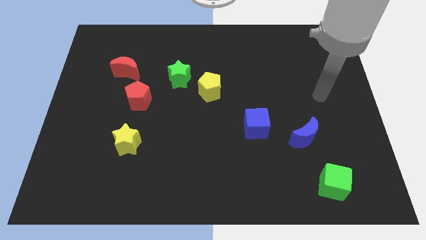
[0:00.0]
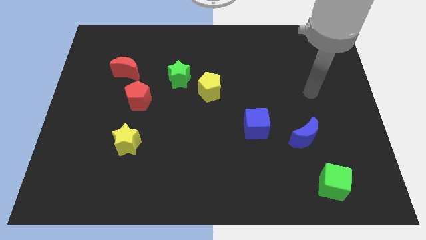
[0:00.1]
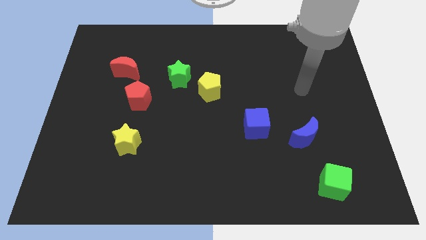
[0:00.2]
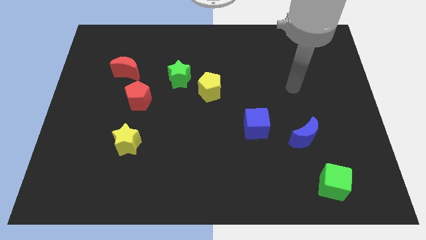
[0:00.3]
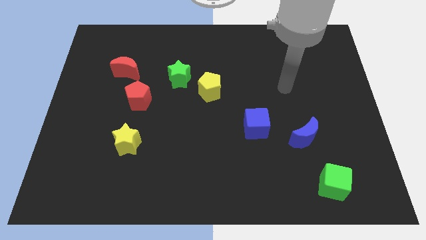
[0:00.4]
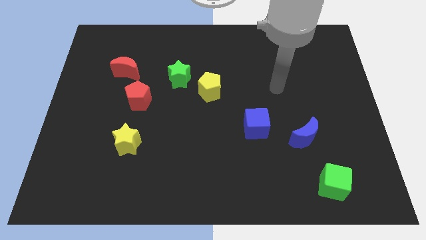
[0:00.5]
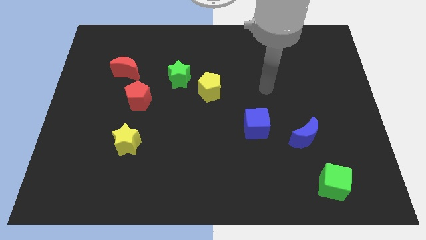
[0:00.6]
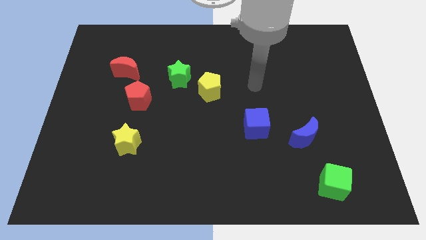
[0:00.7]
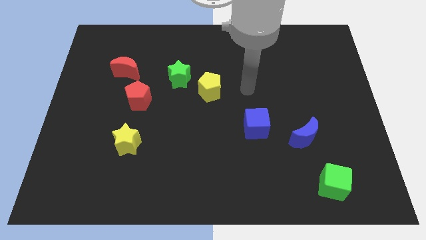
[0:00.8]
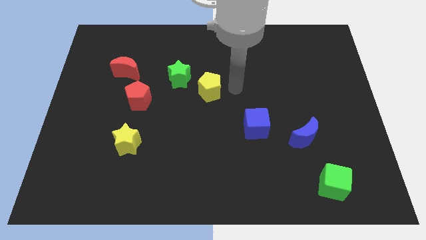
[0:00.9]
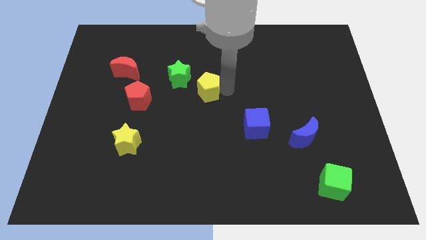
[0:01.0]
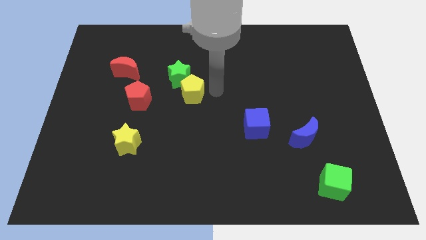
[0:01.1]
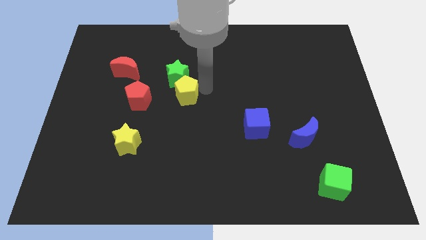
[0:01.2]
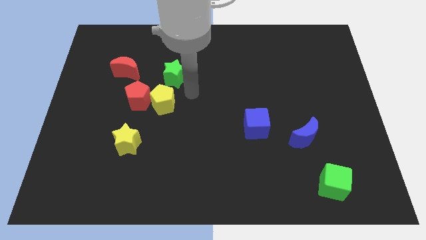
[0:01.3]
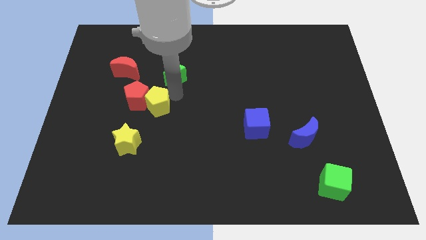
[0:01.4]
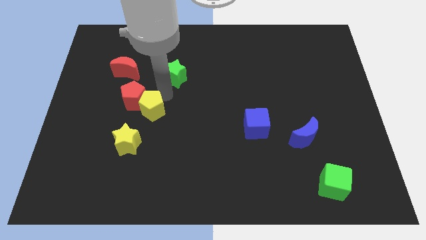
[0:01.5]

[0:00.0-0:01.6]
separate the green star from the yellow pentagon

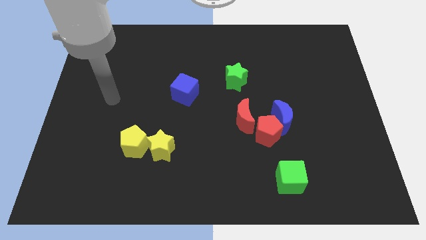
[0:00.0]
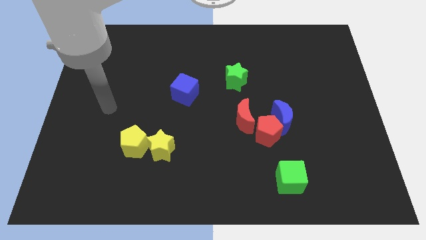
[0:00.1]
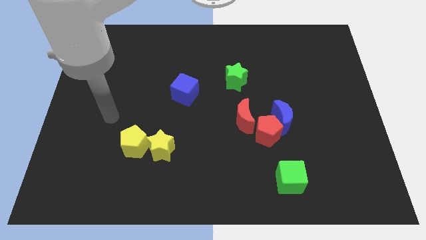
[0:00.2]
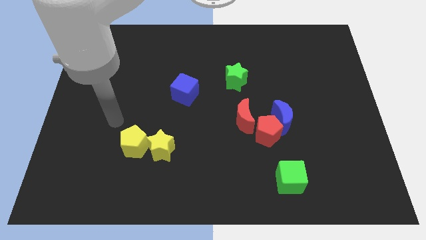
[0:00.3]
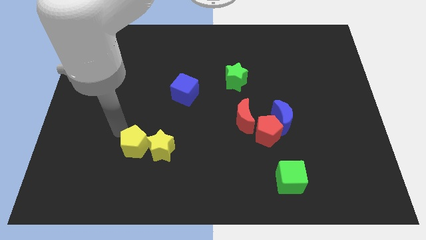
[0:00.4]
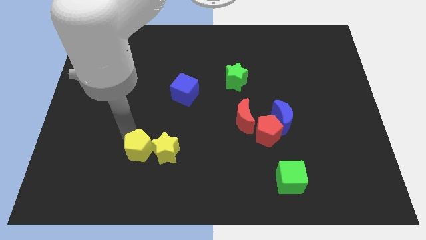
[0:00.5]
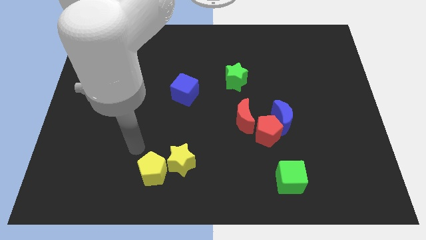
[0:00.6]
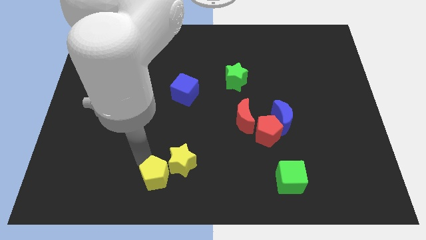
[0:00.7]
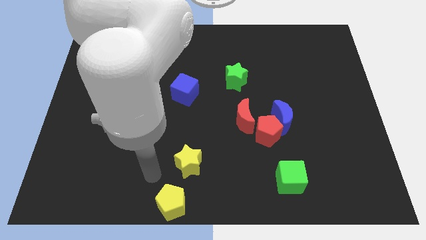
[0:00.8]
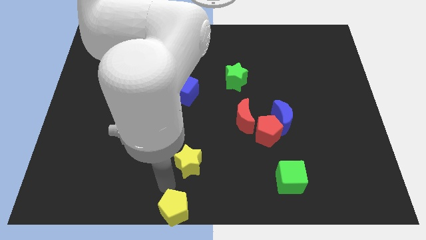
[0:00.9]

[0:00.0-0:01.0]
move the yellow star away from the yellow pentagon

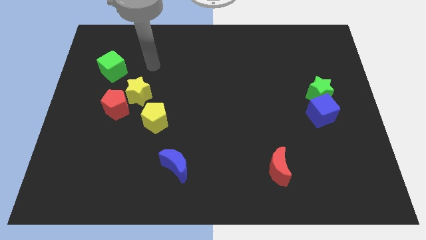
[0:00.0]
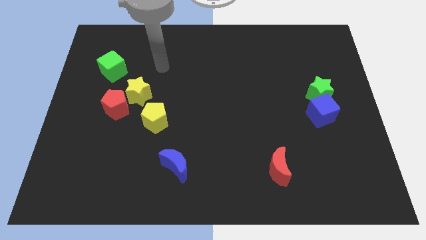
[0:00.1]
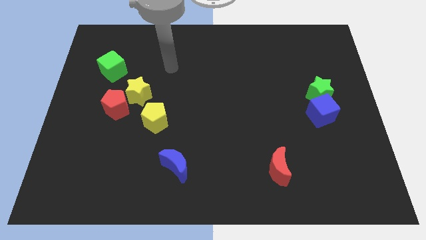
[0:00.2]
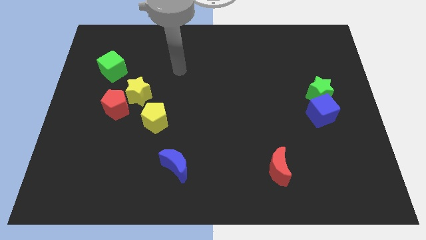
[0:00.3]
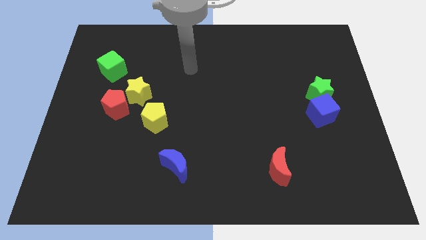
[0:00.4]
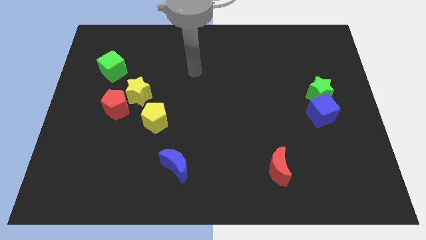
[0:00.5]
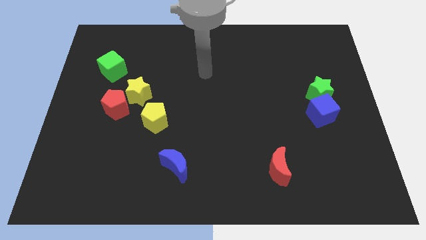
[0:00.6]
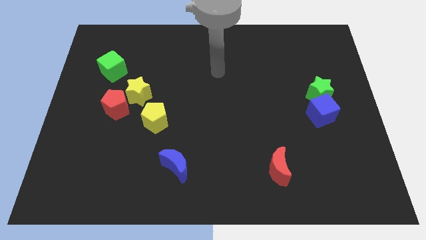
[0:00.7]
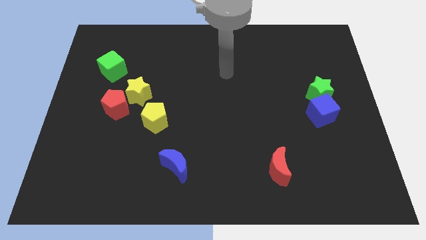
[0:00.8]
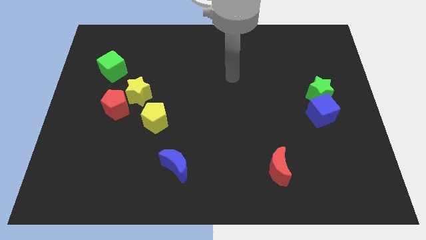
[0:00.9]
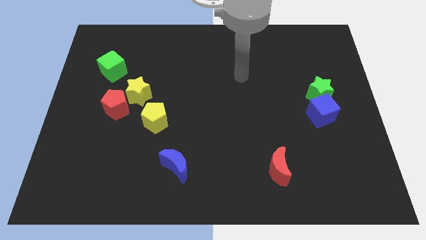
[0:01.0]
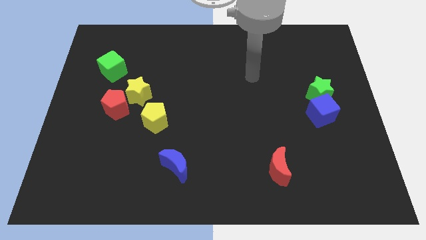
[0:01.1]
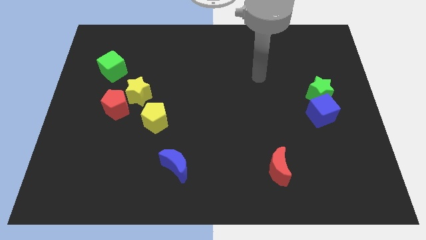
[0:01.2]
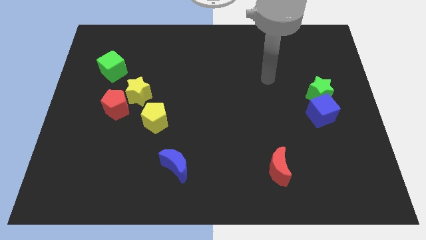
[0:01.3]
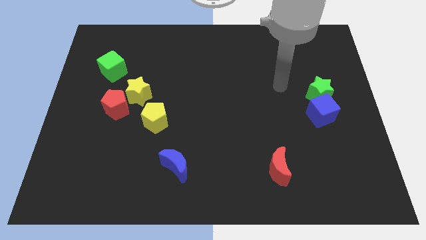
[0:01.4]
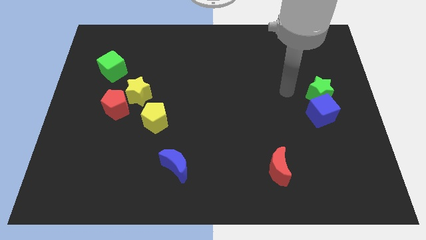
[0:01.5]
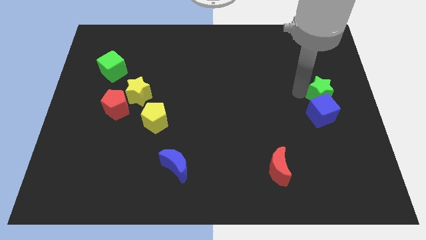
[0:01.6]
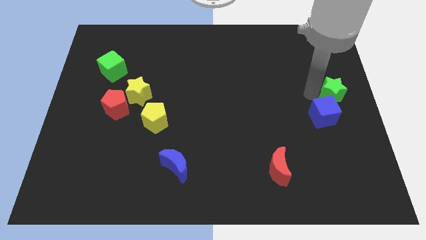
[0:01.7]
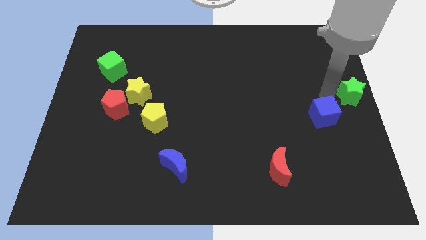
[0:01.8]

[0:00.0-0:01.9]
move the blue cube away from the green star

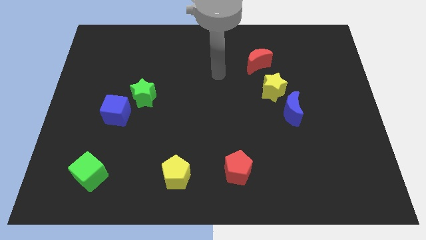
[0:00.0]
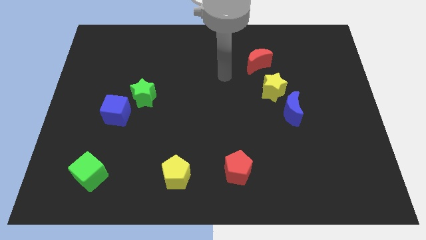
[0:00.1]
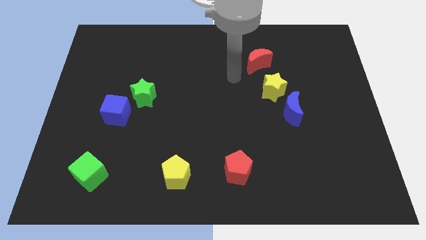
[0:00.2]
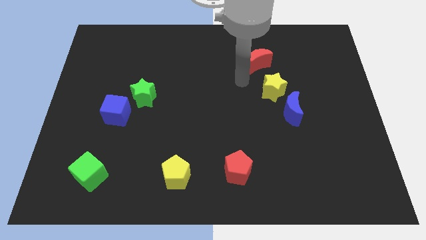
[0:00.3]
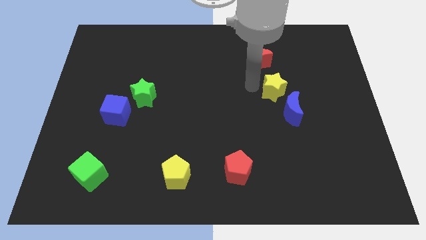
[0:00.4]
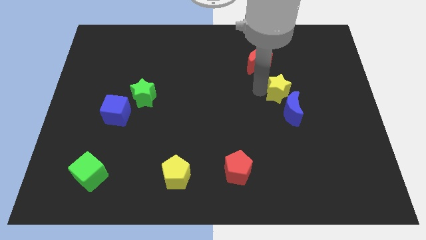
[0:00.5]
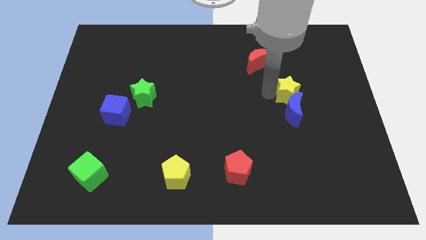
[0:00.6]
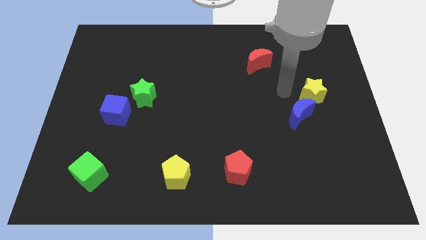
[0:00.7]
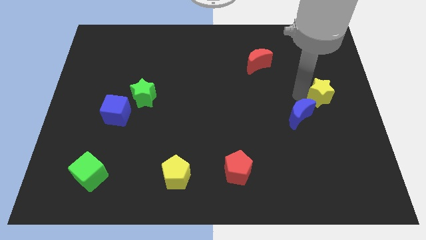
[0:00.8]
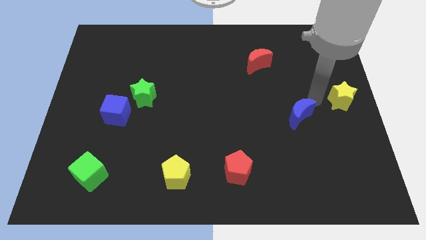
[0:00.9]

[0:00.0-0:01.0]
move the blue moon away from the yellow star

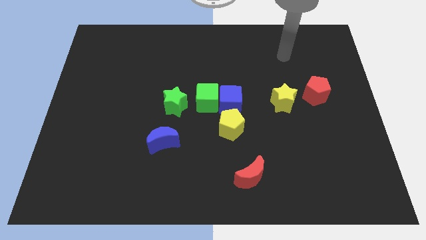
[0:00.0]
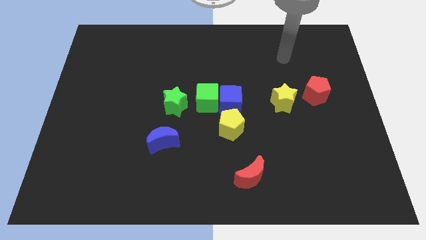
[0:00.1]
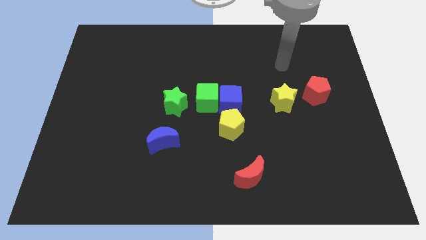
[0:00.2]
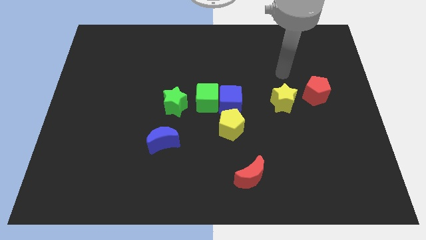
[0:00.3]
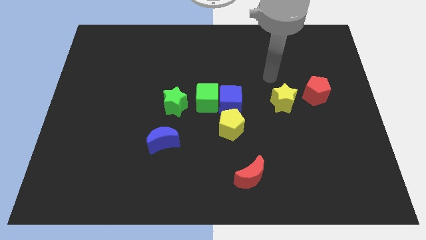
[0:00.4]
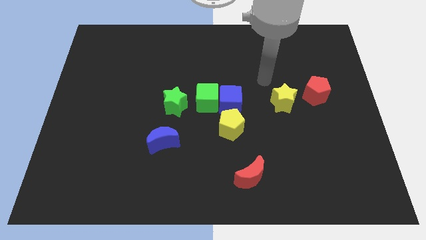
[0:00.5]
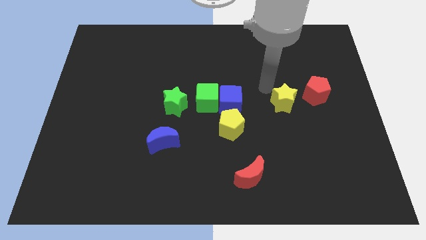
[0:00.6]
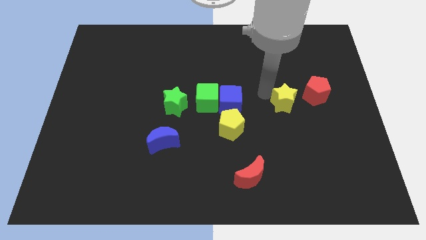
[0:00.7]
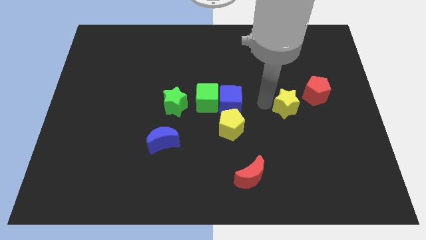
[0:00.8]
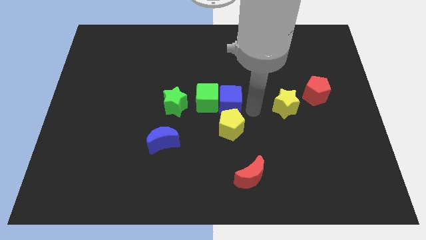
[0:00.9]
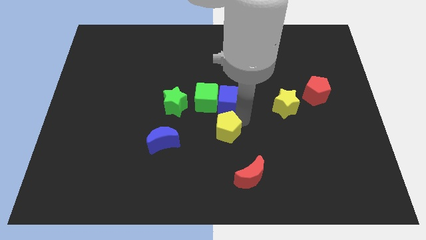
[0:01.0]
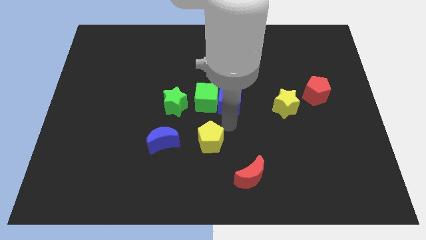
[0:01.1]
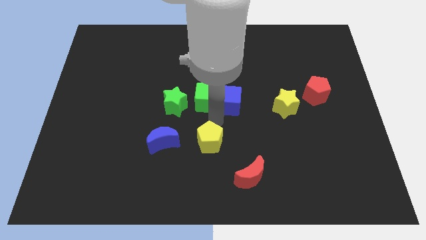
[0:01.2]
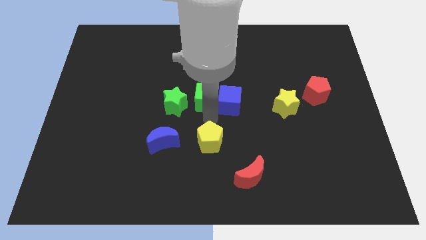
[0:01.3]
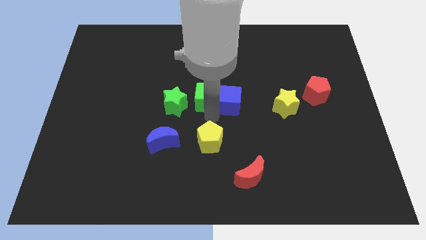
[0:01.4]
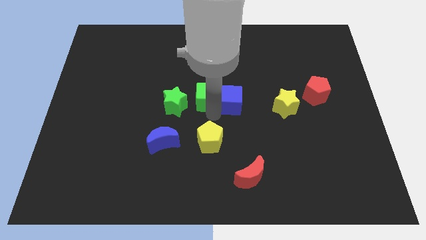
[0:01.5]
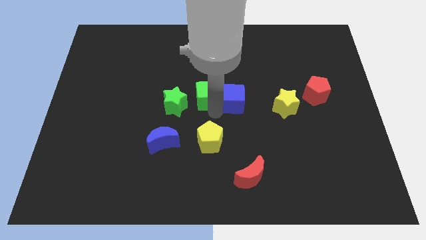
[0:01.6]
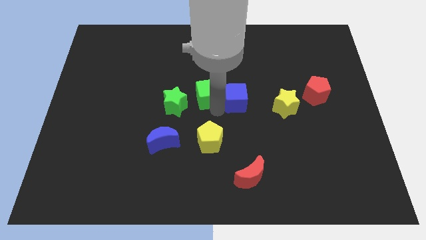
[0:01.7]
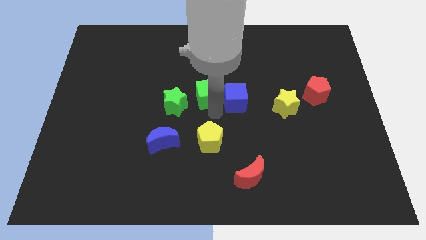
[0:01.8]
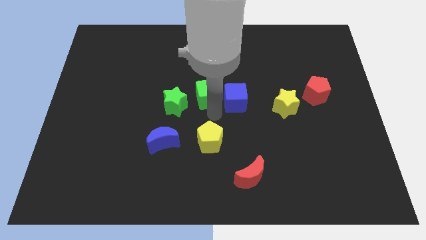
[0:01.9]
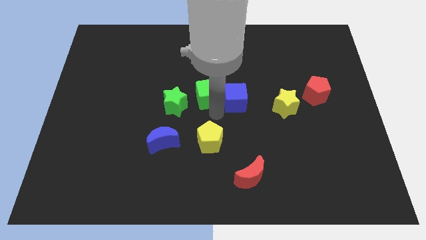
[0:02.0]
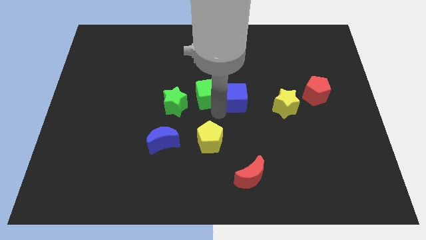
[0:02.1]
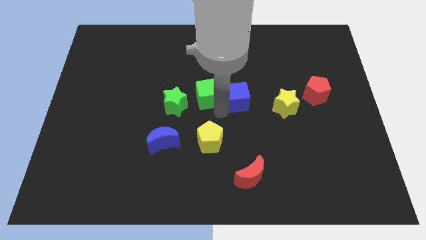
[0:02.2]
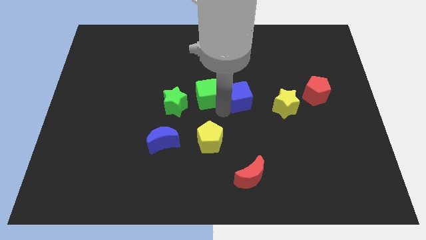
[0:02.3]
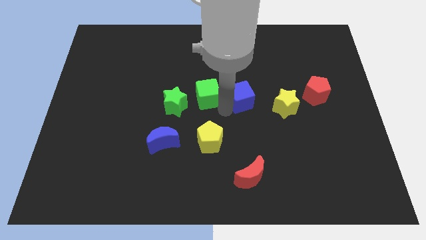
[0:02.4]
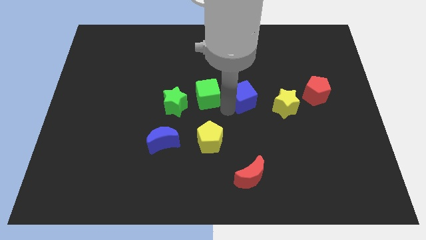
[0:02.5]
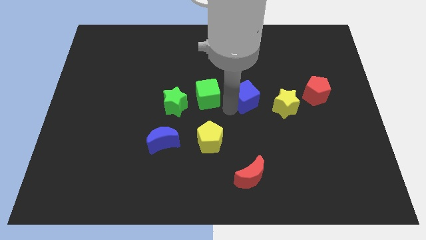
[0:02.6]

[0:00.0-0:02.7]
move the blue cube away from the green cube and yellow pentagon

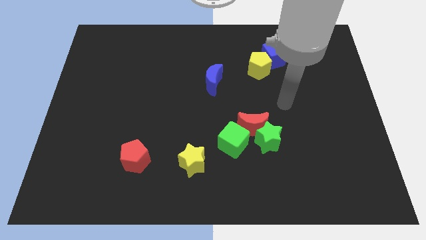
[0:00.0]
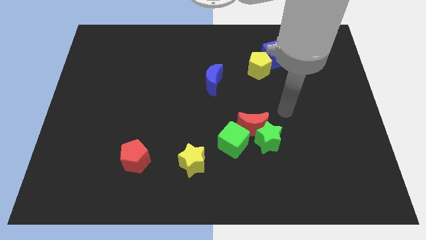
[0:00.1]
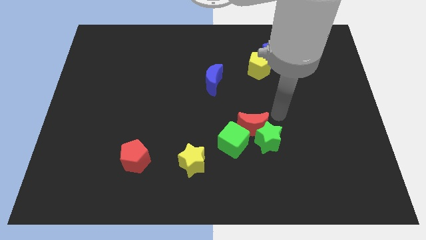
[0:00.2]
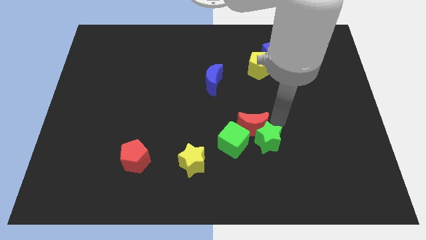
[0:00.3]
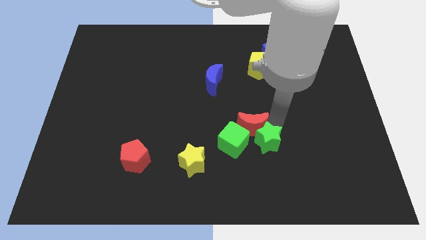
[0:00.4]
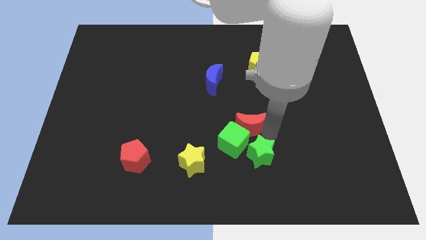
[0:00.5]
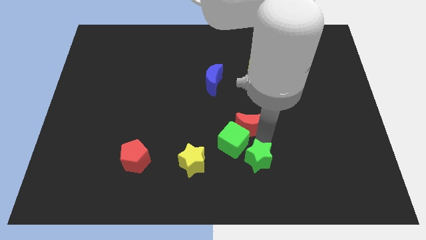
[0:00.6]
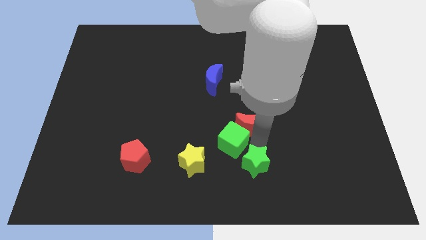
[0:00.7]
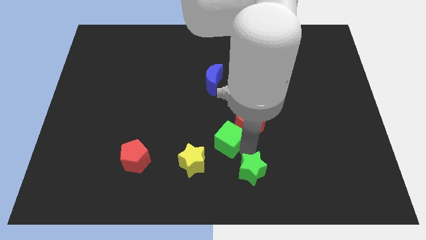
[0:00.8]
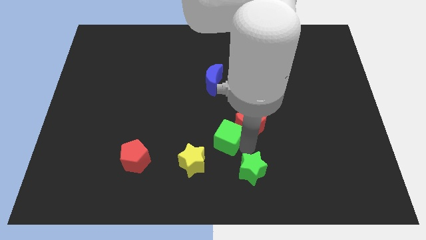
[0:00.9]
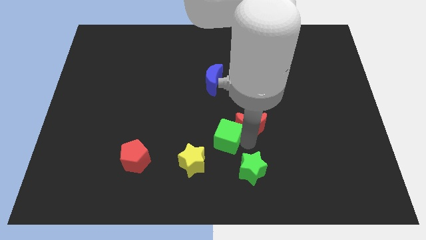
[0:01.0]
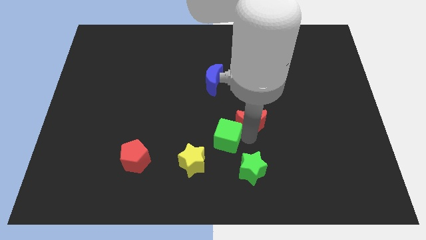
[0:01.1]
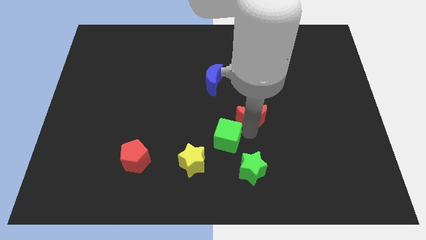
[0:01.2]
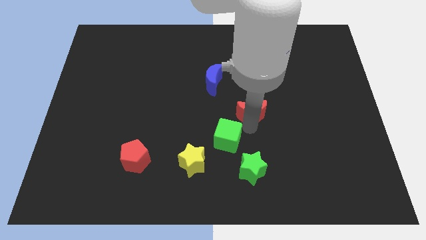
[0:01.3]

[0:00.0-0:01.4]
pull the red moon apart from the green star and green cube
